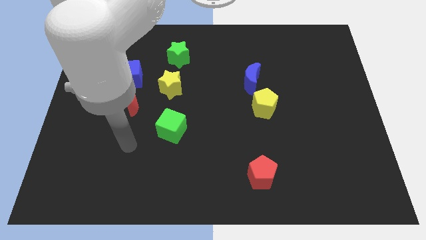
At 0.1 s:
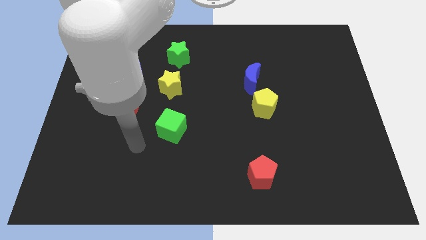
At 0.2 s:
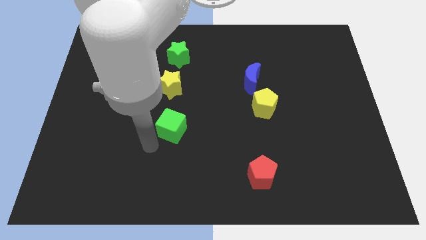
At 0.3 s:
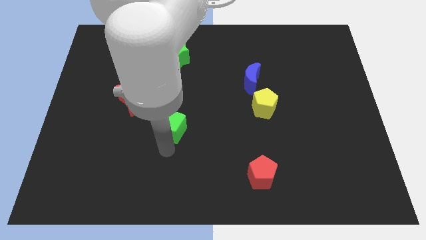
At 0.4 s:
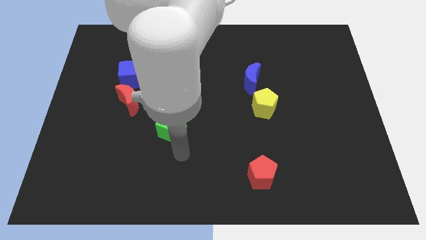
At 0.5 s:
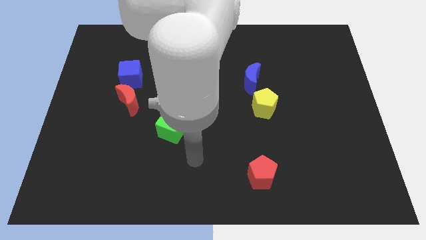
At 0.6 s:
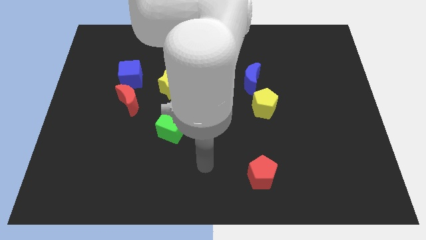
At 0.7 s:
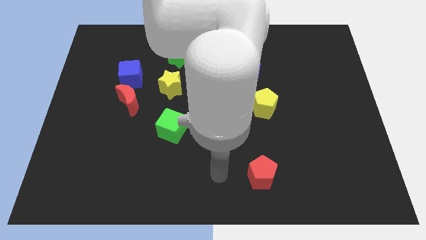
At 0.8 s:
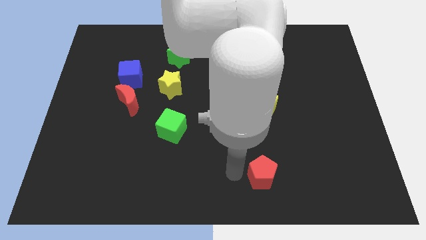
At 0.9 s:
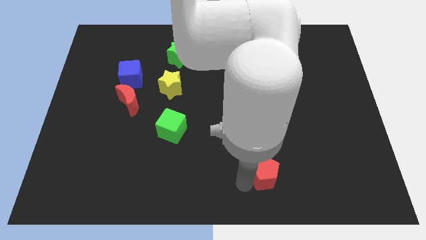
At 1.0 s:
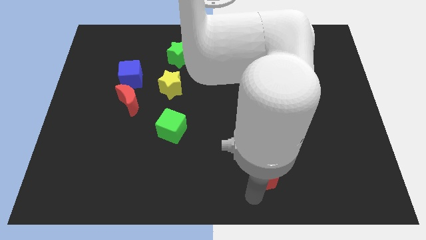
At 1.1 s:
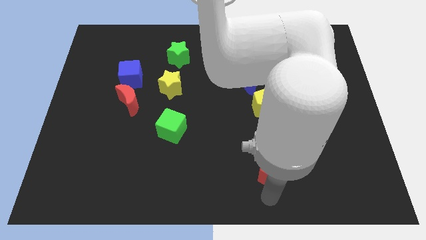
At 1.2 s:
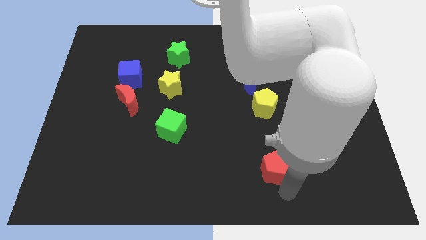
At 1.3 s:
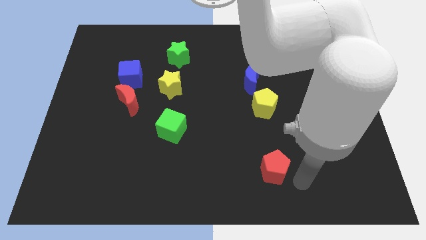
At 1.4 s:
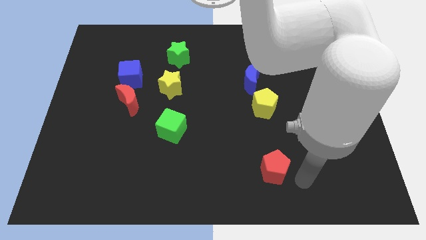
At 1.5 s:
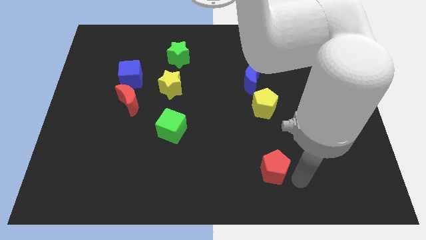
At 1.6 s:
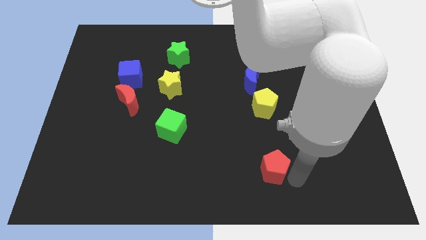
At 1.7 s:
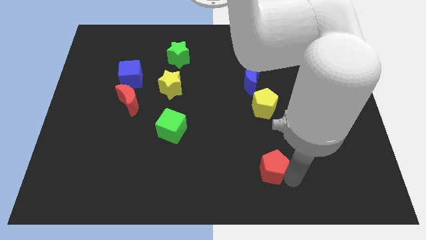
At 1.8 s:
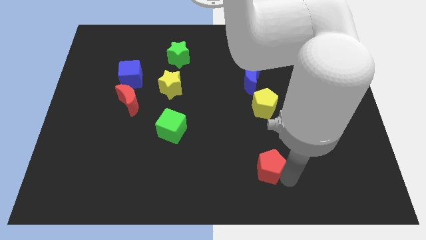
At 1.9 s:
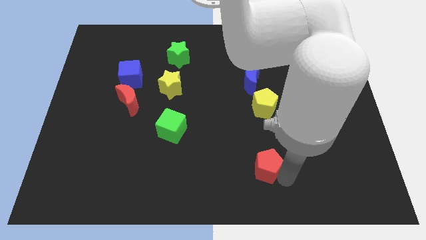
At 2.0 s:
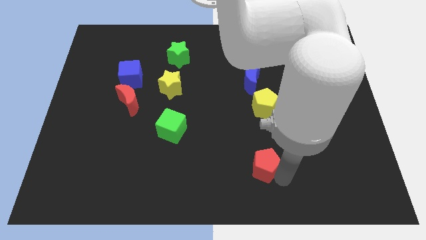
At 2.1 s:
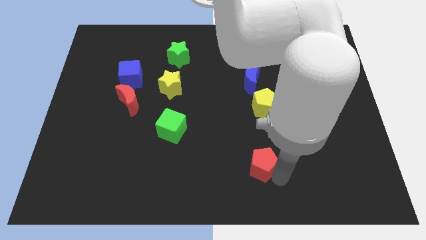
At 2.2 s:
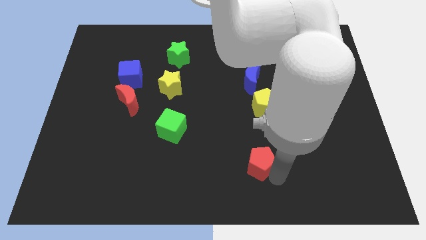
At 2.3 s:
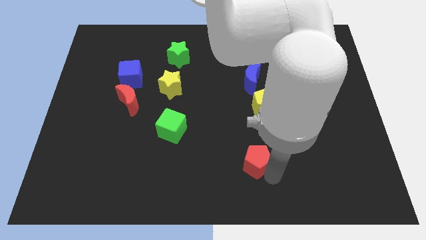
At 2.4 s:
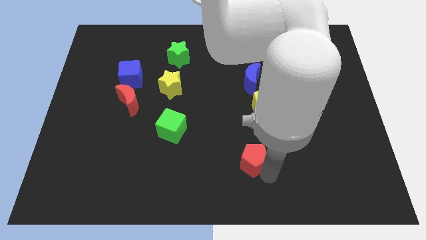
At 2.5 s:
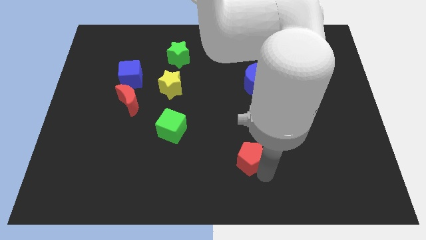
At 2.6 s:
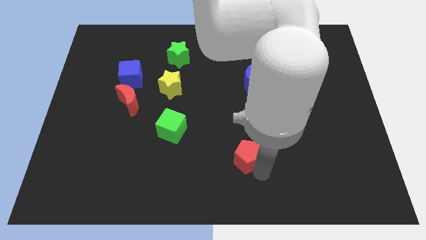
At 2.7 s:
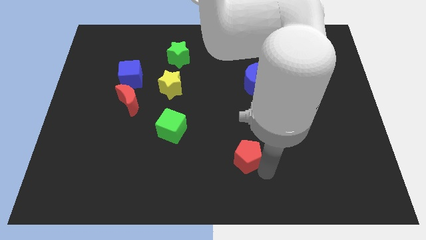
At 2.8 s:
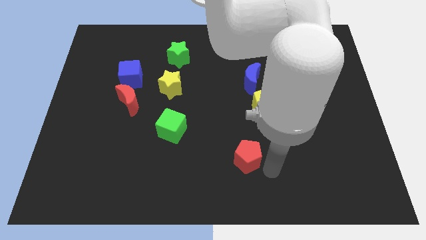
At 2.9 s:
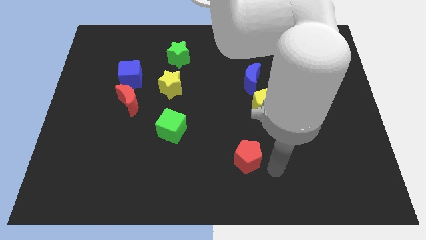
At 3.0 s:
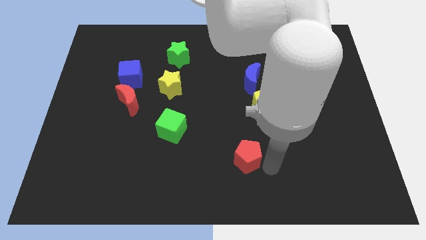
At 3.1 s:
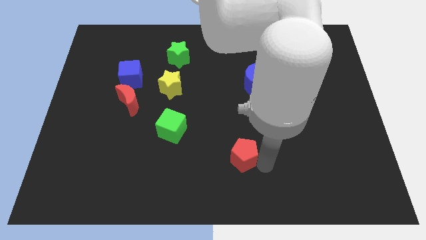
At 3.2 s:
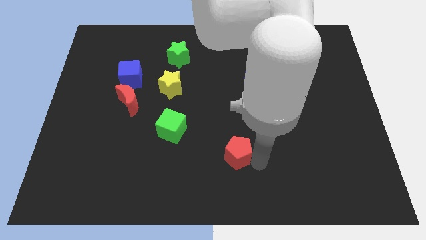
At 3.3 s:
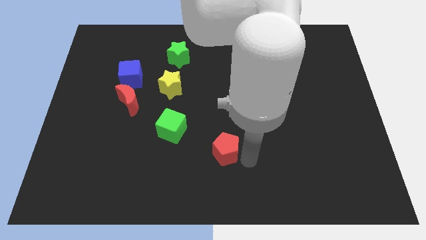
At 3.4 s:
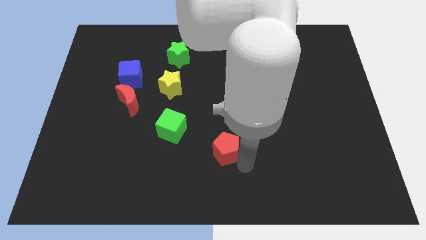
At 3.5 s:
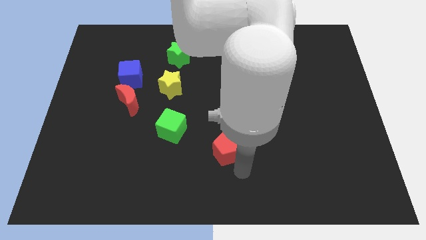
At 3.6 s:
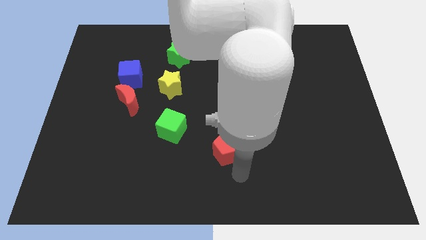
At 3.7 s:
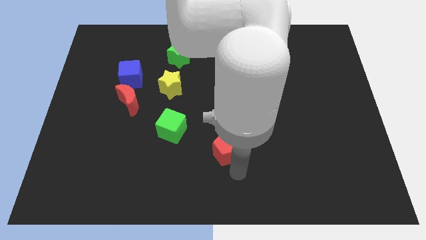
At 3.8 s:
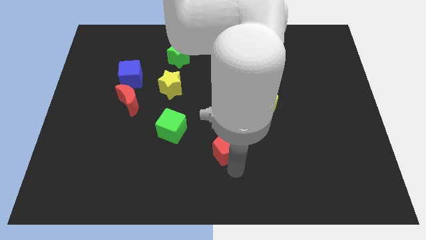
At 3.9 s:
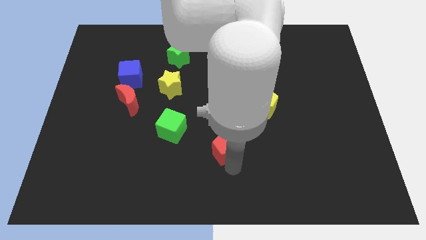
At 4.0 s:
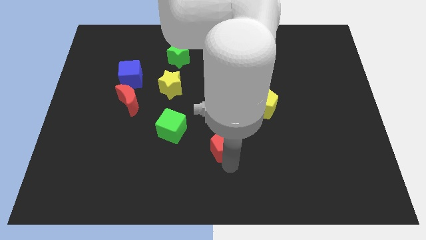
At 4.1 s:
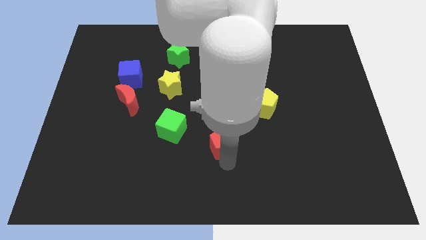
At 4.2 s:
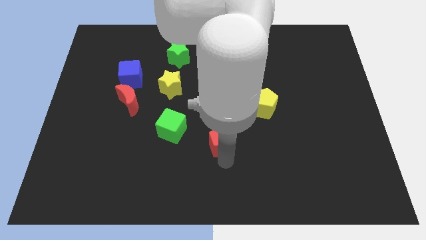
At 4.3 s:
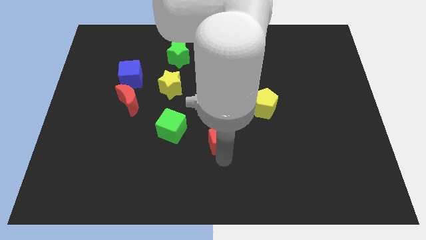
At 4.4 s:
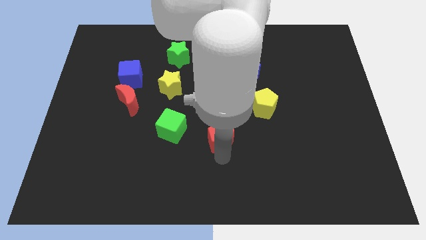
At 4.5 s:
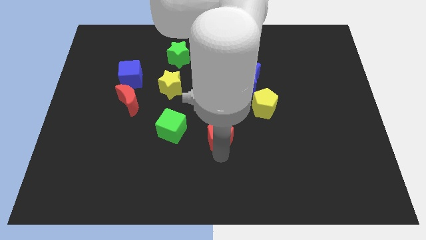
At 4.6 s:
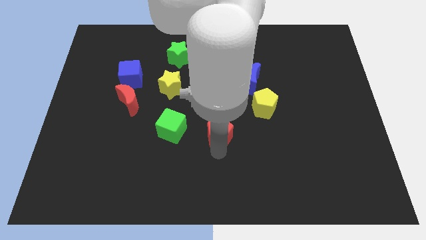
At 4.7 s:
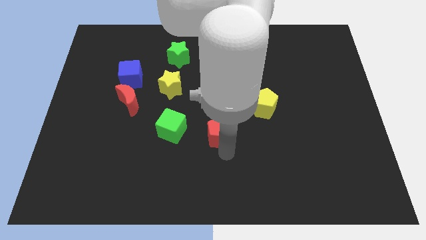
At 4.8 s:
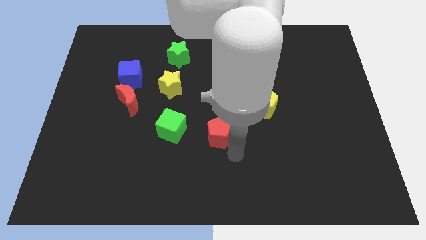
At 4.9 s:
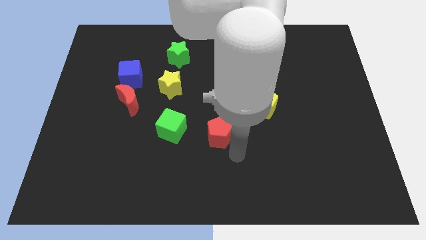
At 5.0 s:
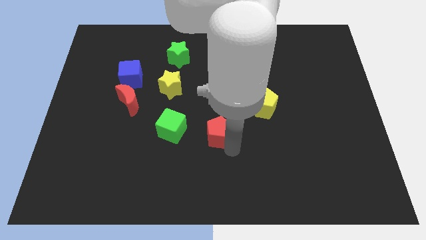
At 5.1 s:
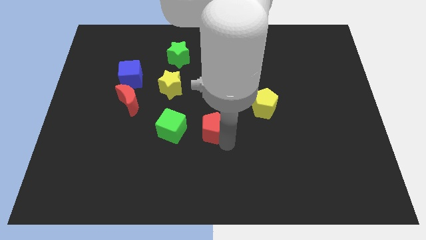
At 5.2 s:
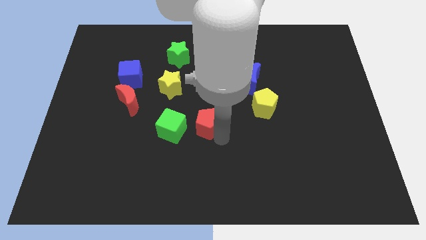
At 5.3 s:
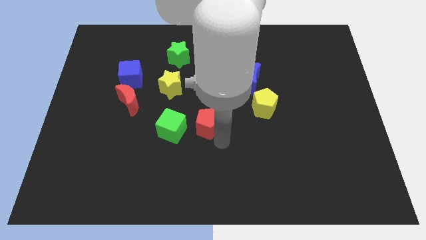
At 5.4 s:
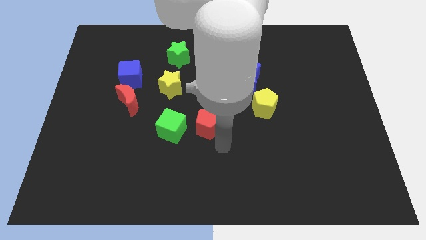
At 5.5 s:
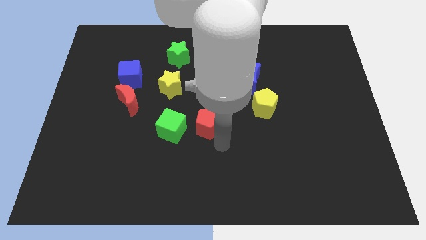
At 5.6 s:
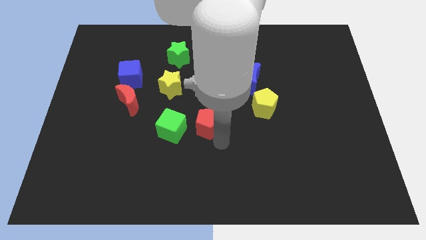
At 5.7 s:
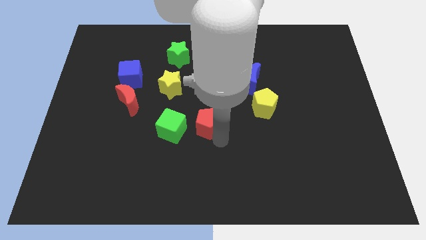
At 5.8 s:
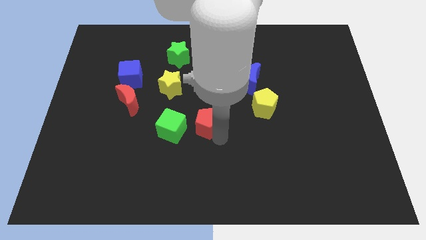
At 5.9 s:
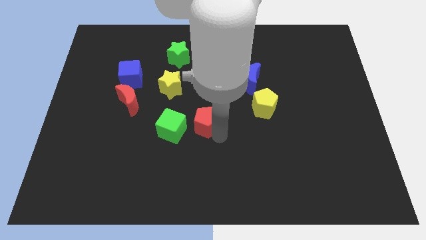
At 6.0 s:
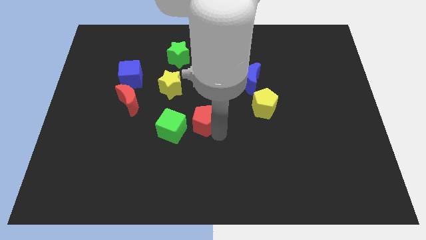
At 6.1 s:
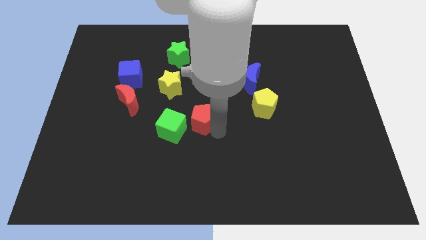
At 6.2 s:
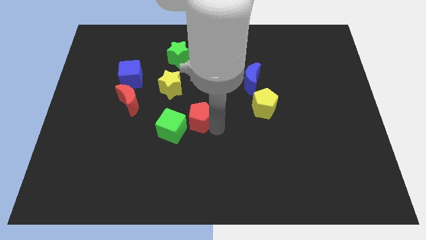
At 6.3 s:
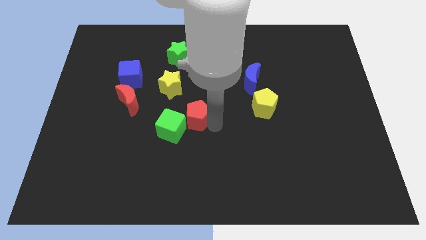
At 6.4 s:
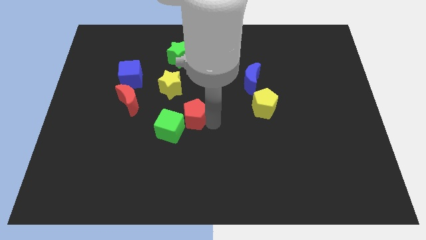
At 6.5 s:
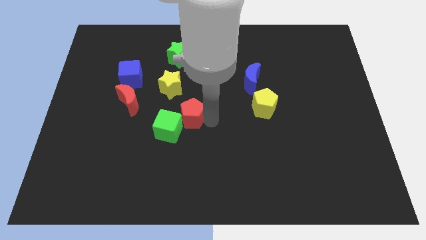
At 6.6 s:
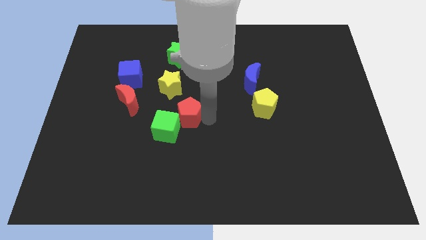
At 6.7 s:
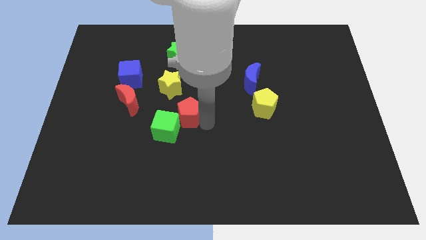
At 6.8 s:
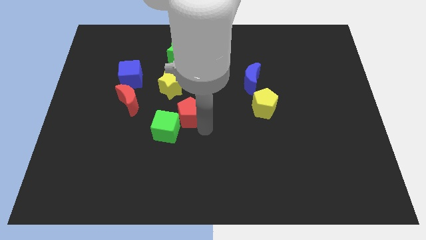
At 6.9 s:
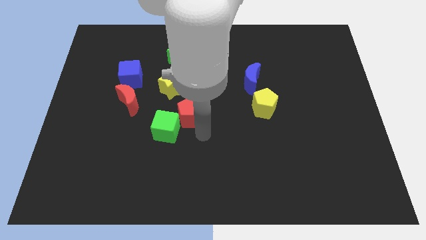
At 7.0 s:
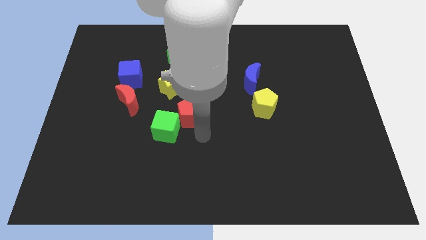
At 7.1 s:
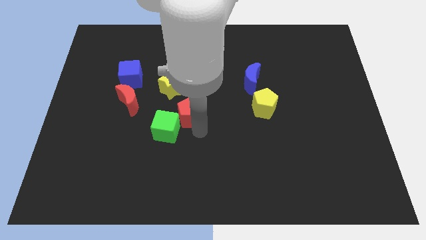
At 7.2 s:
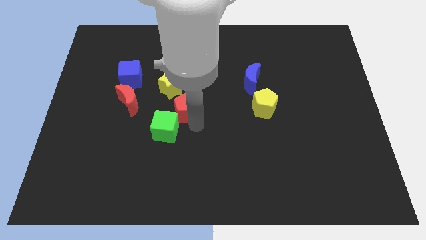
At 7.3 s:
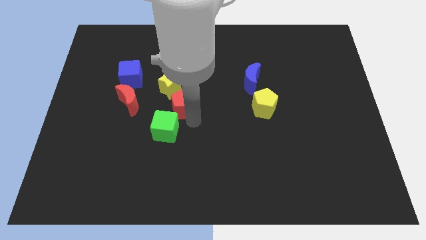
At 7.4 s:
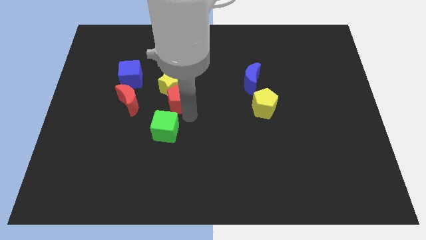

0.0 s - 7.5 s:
push the red pentagon to the yellow star
